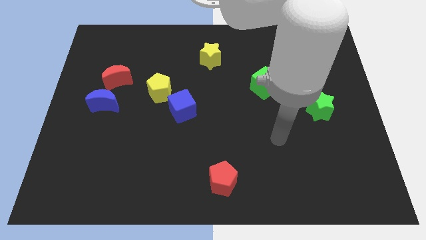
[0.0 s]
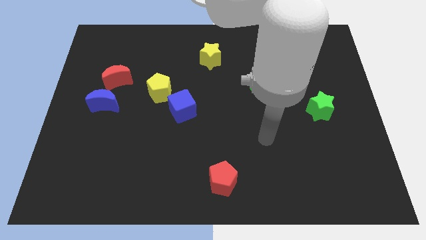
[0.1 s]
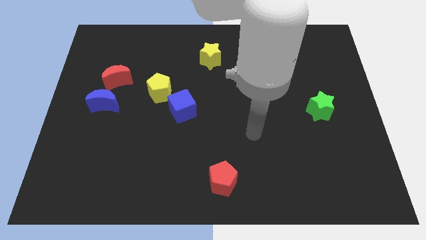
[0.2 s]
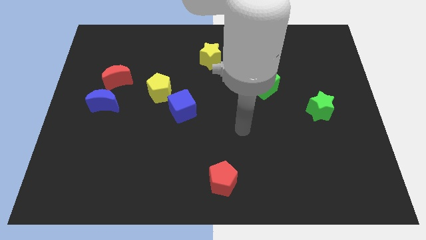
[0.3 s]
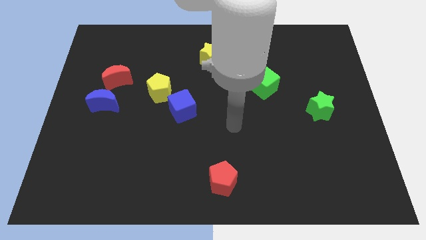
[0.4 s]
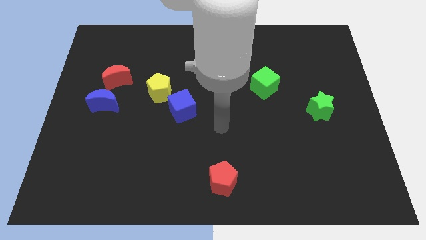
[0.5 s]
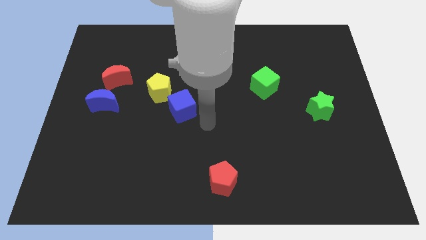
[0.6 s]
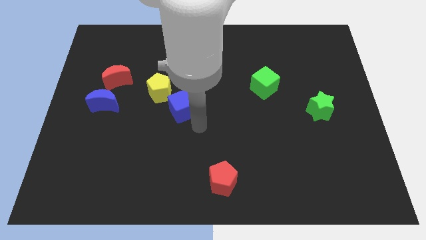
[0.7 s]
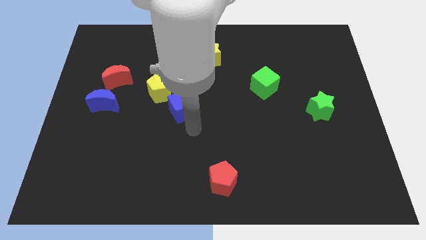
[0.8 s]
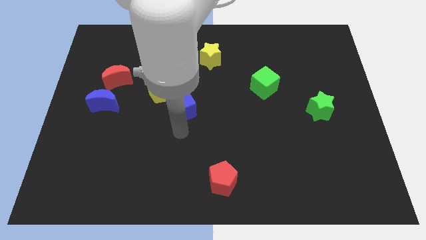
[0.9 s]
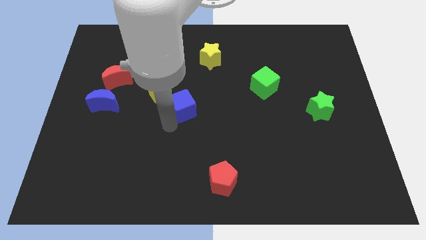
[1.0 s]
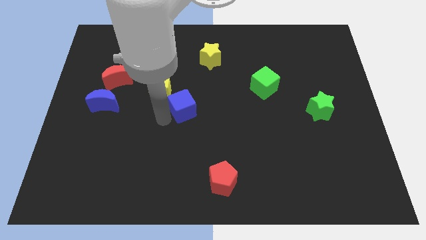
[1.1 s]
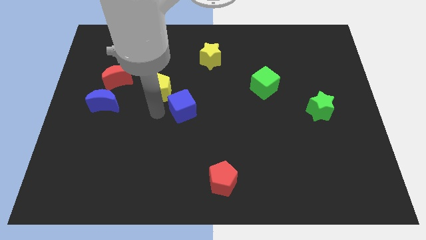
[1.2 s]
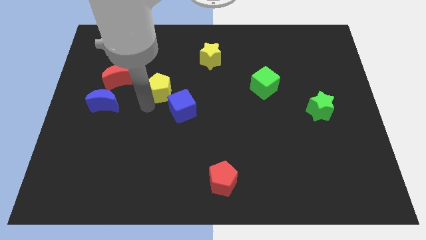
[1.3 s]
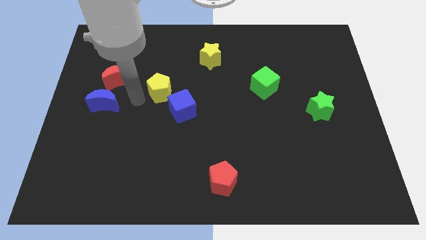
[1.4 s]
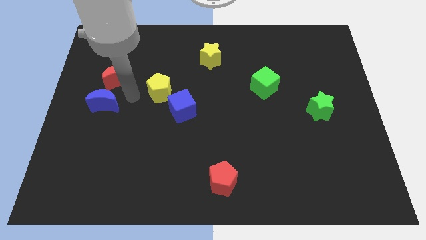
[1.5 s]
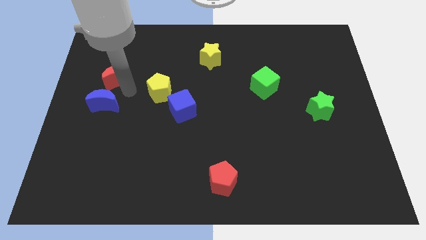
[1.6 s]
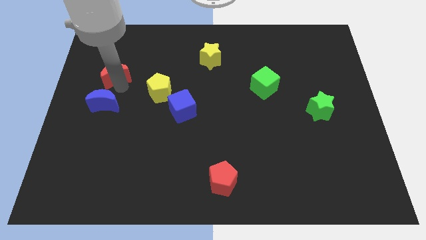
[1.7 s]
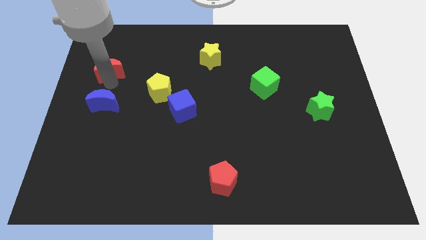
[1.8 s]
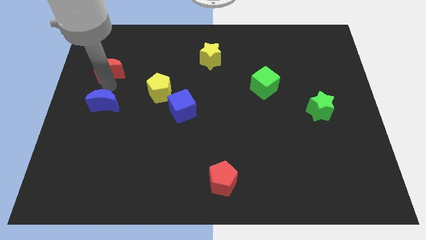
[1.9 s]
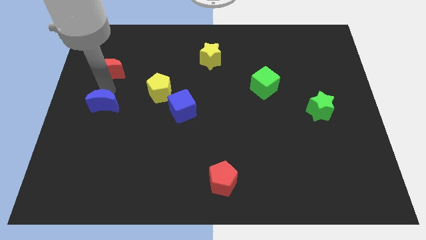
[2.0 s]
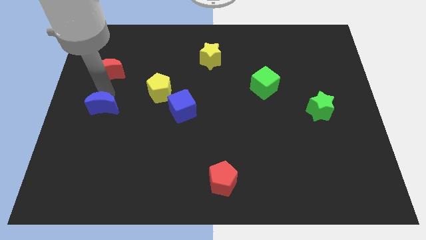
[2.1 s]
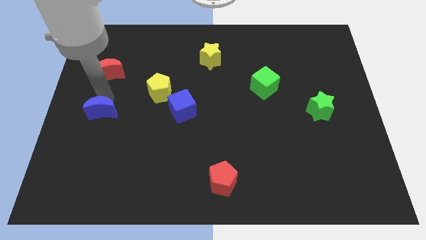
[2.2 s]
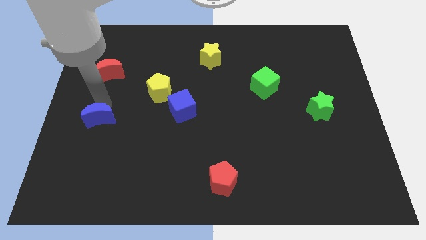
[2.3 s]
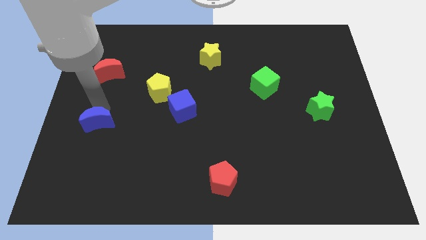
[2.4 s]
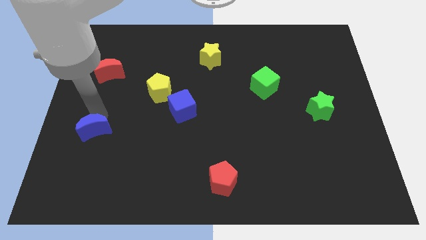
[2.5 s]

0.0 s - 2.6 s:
slide the blue moon down a little

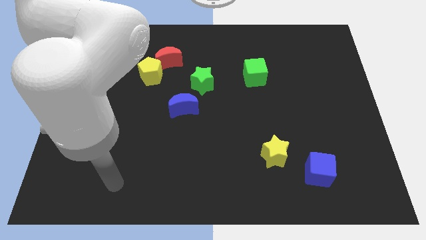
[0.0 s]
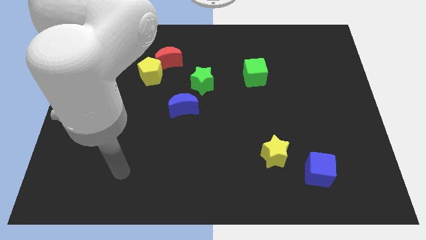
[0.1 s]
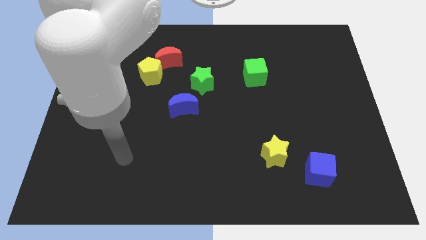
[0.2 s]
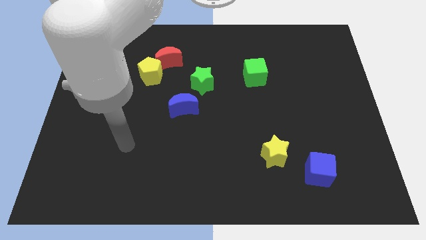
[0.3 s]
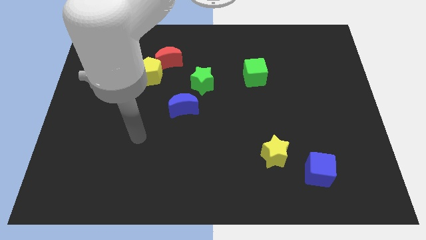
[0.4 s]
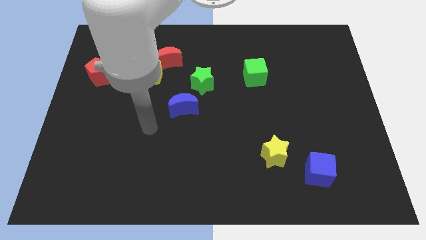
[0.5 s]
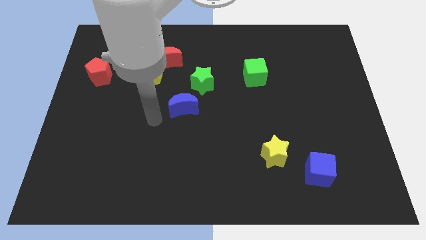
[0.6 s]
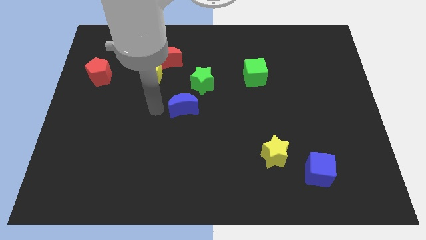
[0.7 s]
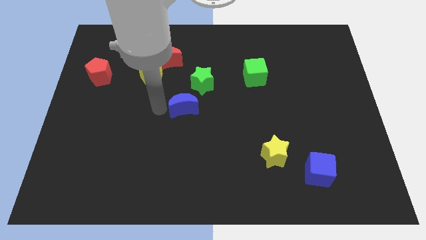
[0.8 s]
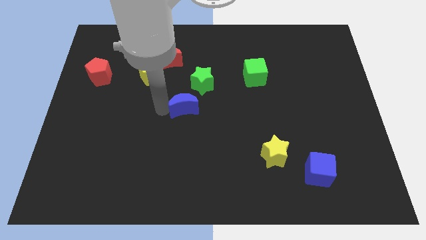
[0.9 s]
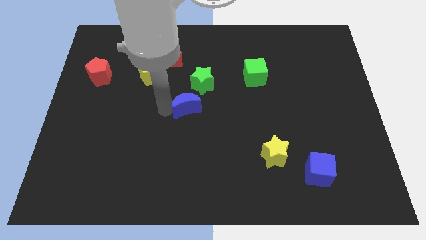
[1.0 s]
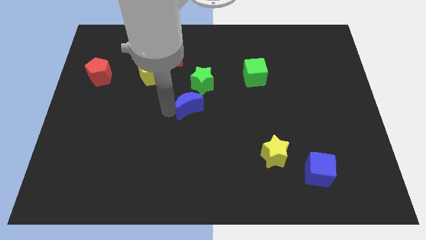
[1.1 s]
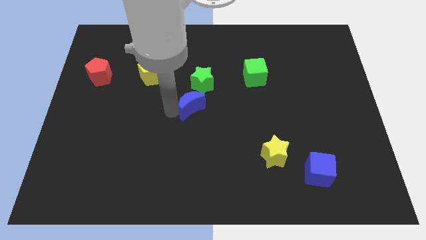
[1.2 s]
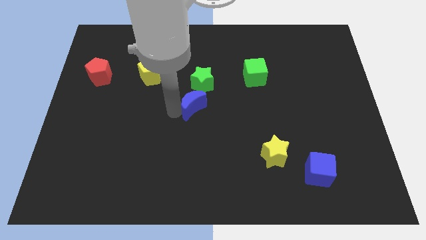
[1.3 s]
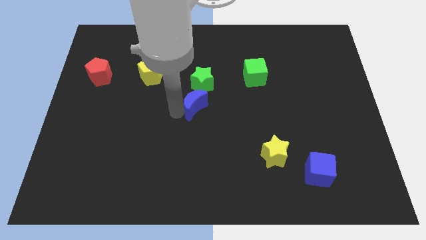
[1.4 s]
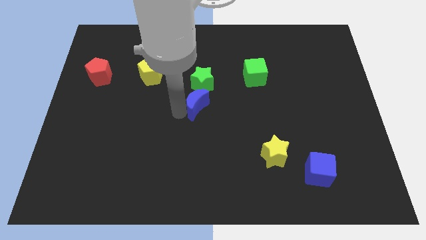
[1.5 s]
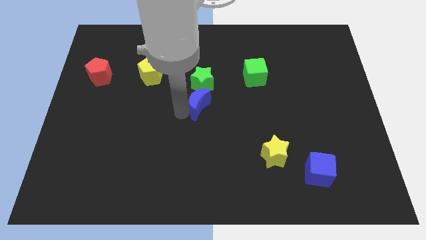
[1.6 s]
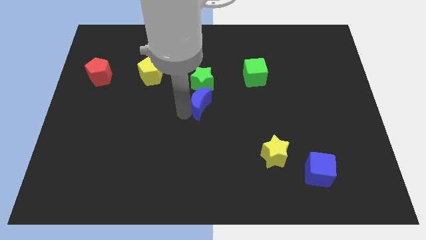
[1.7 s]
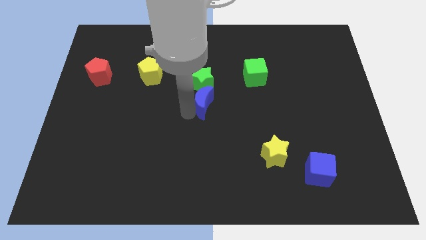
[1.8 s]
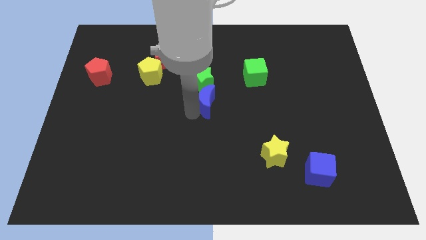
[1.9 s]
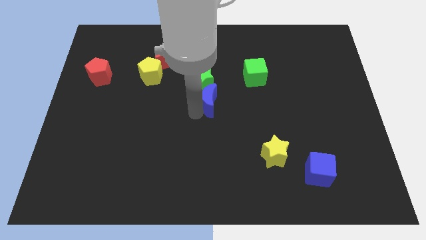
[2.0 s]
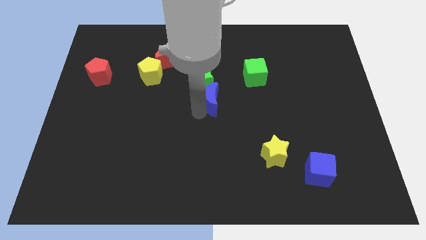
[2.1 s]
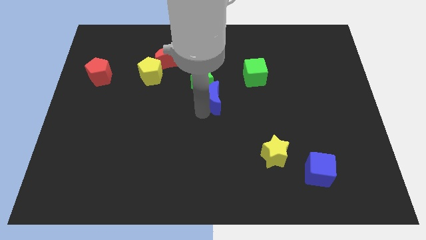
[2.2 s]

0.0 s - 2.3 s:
push the blue moon right a little bit

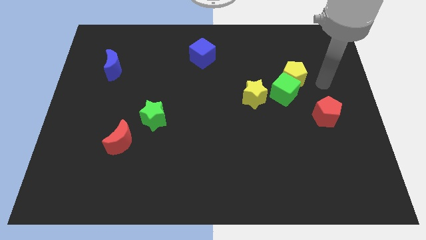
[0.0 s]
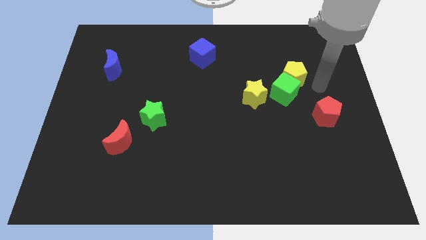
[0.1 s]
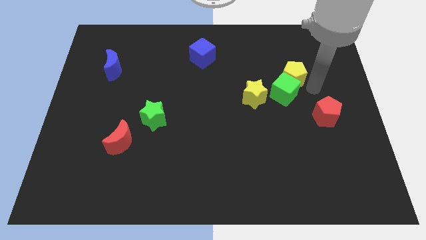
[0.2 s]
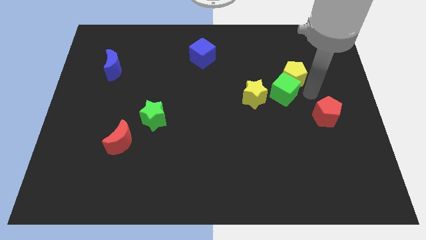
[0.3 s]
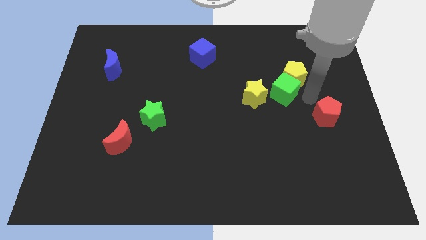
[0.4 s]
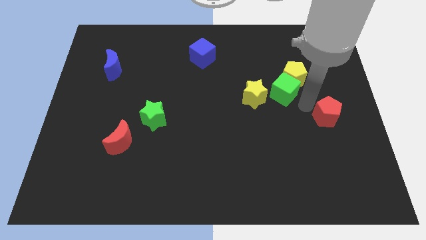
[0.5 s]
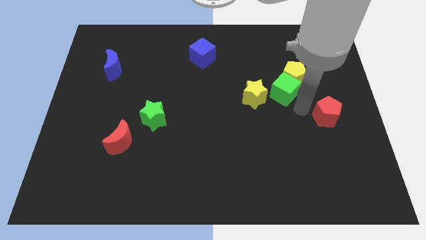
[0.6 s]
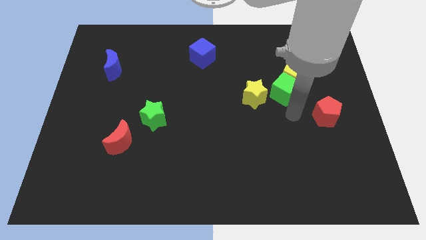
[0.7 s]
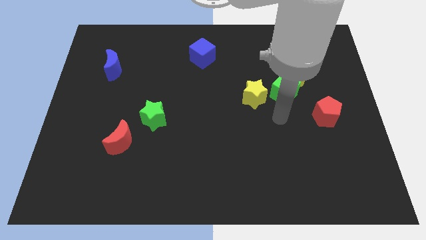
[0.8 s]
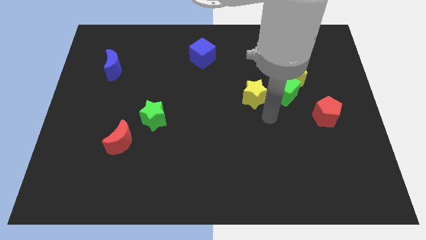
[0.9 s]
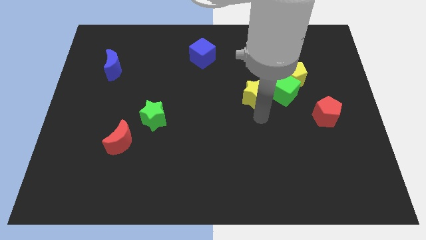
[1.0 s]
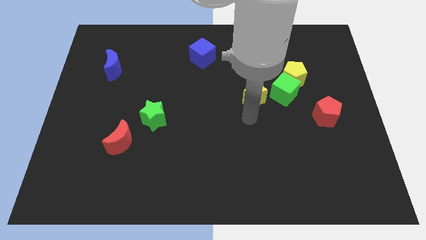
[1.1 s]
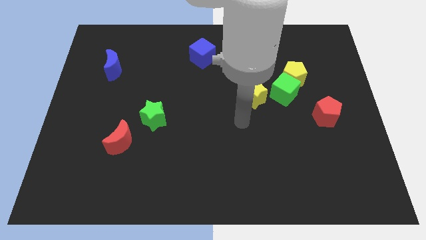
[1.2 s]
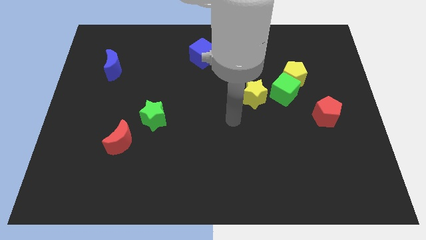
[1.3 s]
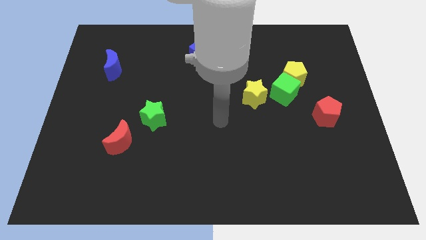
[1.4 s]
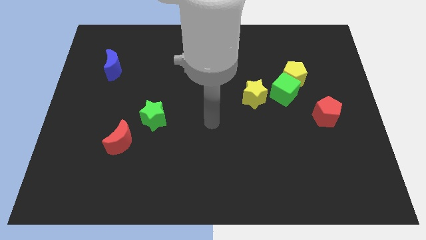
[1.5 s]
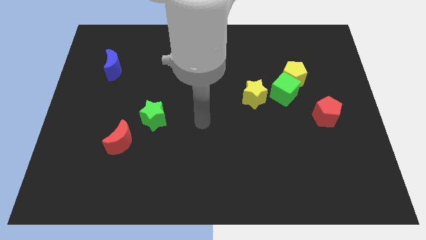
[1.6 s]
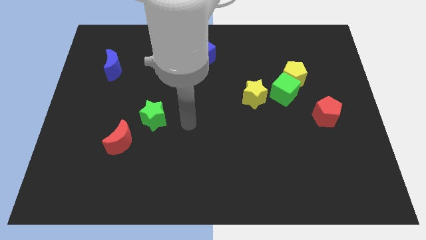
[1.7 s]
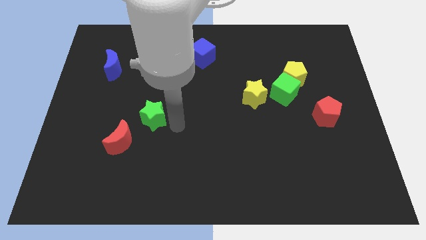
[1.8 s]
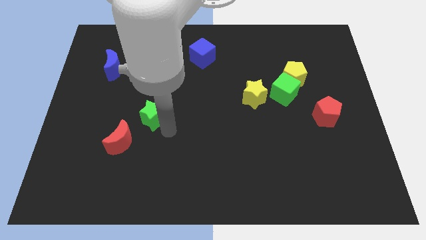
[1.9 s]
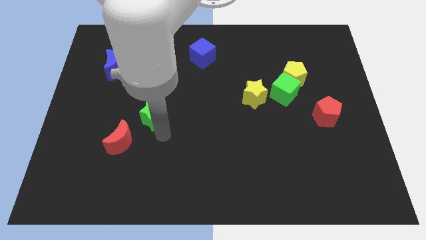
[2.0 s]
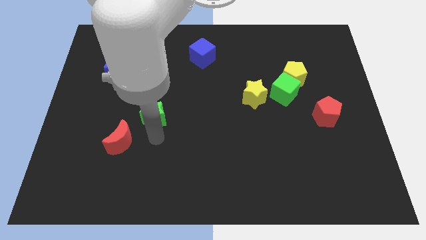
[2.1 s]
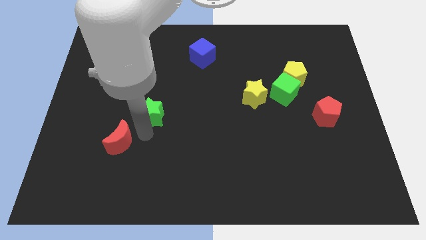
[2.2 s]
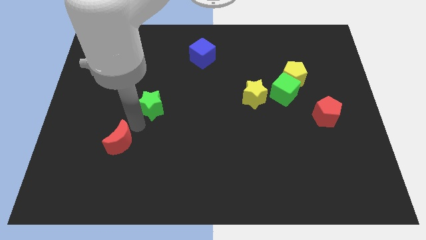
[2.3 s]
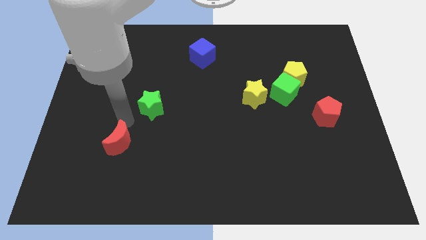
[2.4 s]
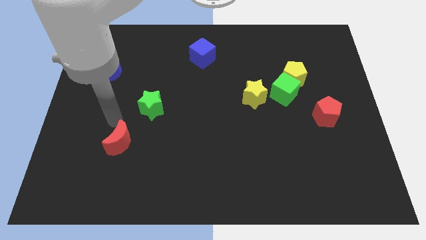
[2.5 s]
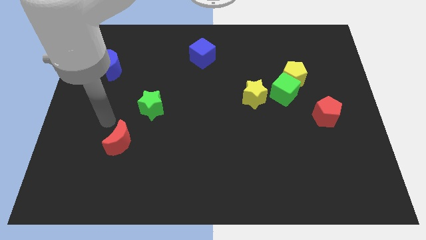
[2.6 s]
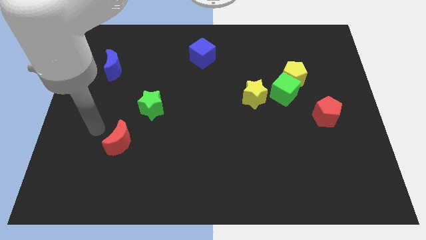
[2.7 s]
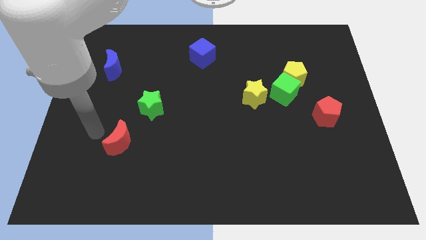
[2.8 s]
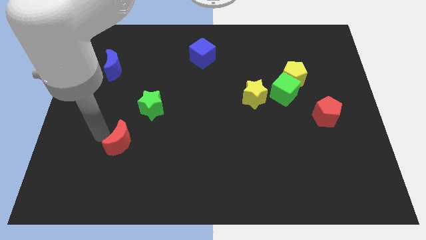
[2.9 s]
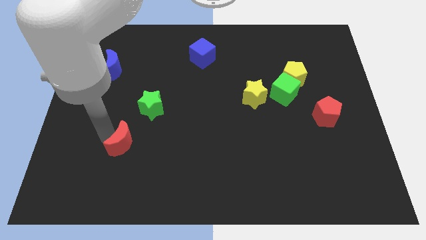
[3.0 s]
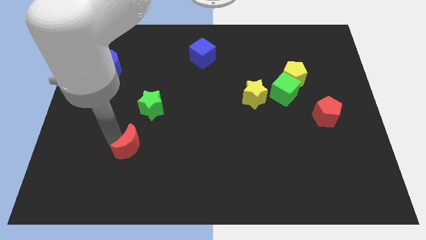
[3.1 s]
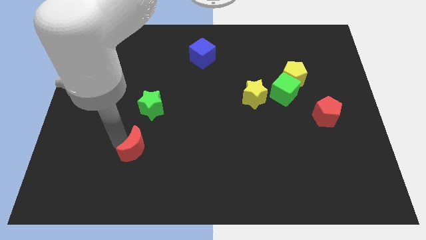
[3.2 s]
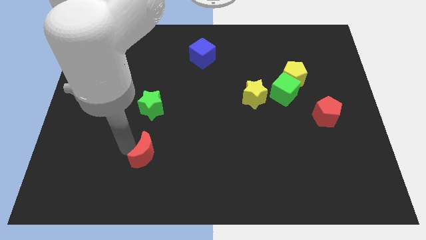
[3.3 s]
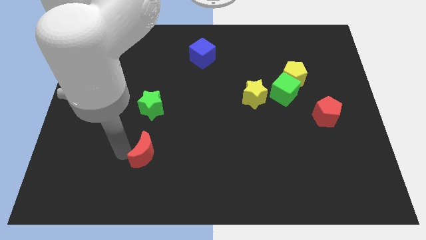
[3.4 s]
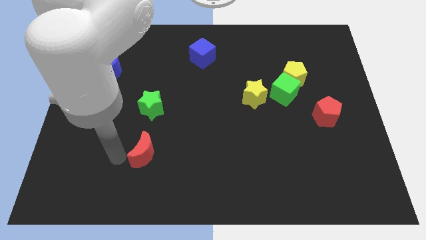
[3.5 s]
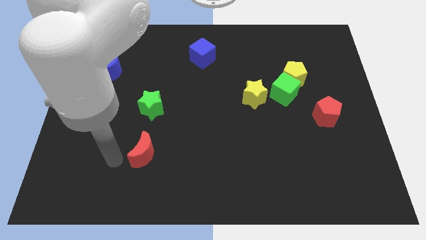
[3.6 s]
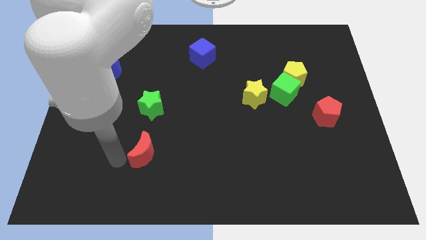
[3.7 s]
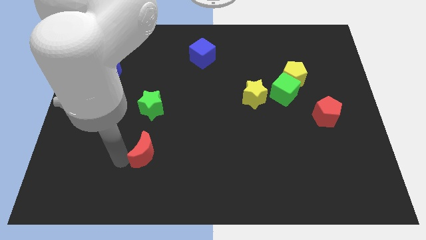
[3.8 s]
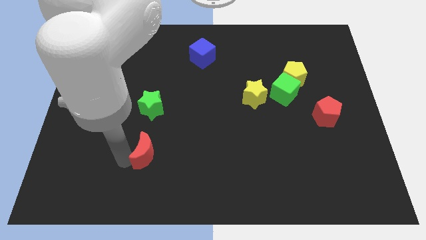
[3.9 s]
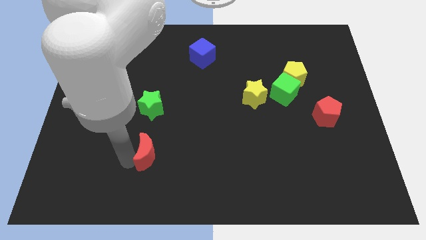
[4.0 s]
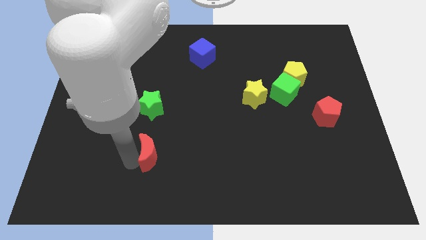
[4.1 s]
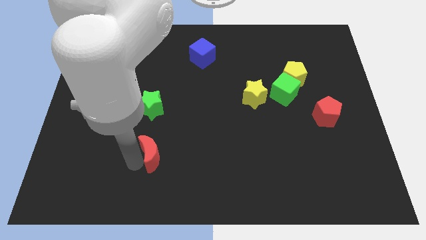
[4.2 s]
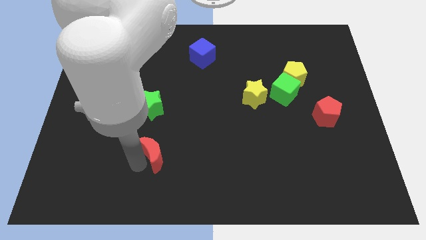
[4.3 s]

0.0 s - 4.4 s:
slide the red moon somewhat to the right
